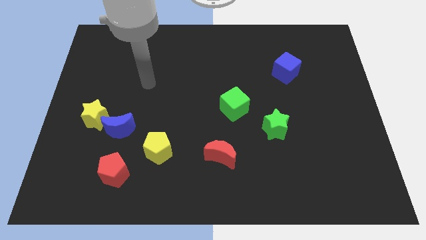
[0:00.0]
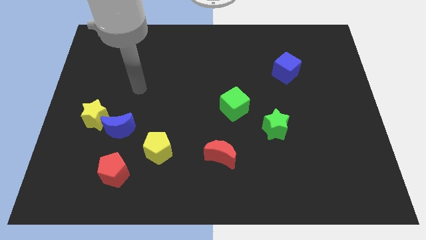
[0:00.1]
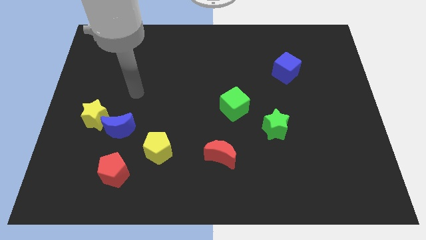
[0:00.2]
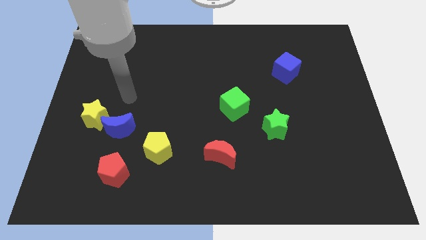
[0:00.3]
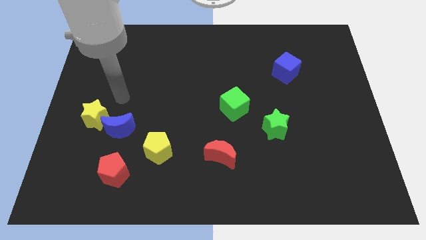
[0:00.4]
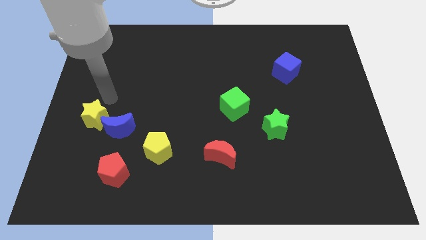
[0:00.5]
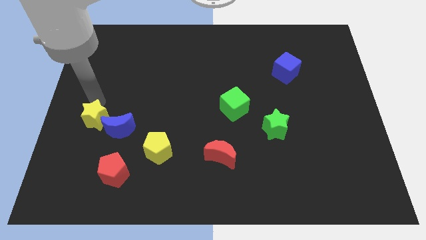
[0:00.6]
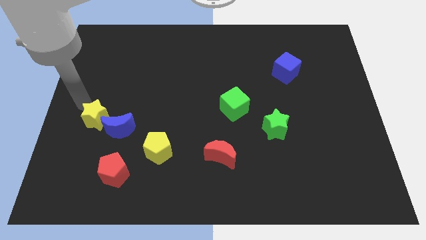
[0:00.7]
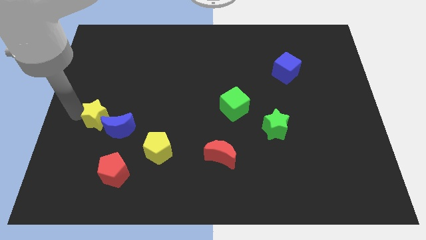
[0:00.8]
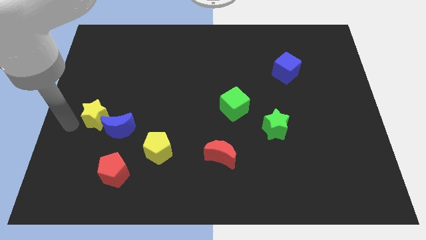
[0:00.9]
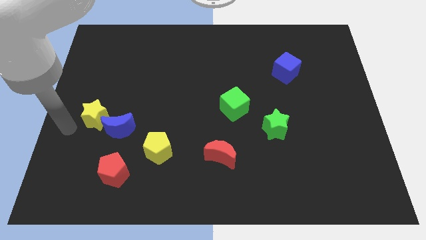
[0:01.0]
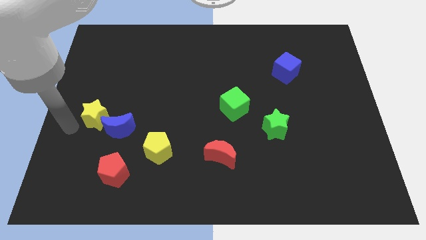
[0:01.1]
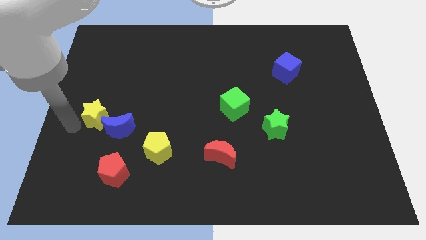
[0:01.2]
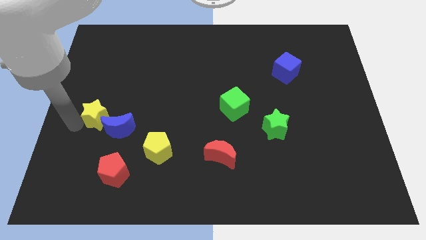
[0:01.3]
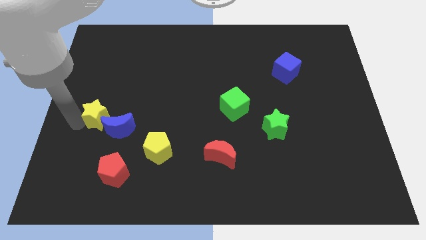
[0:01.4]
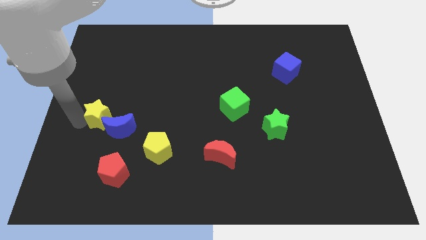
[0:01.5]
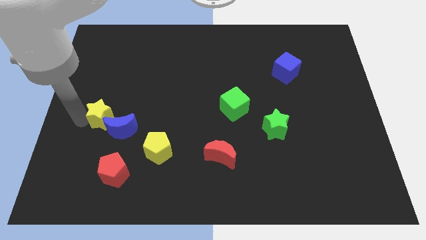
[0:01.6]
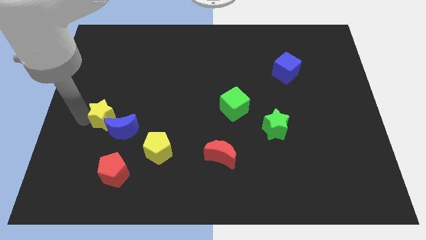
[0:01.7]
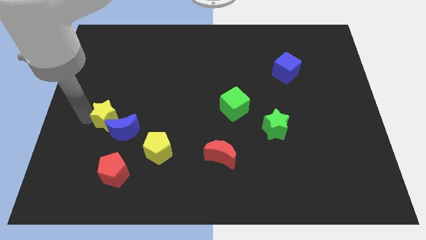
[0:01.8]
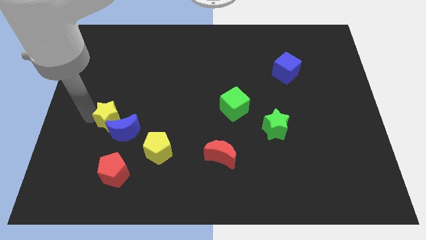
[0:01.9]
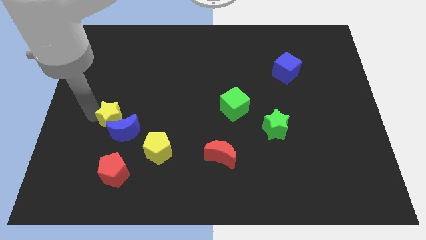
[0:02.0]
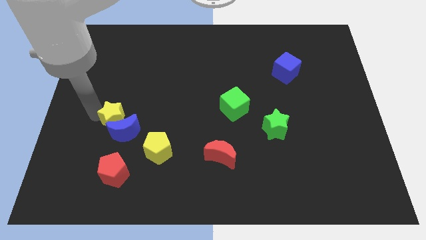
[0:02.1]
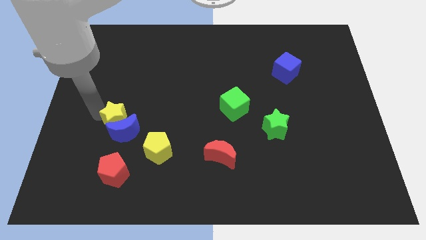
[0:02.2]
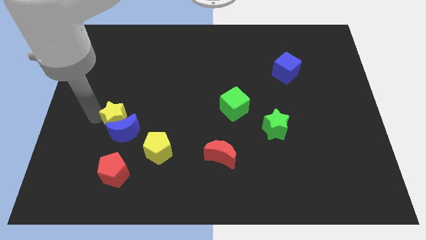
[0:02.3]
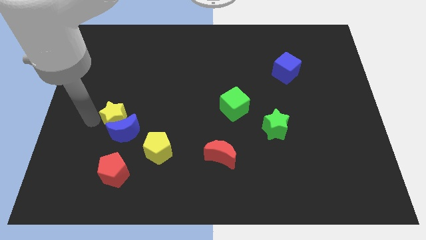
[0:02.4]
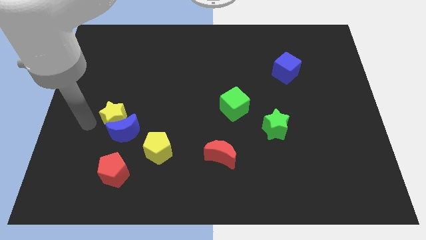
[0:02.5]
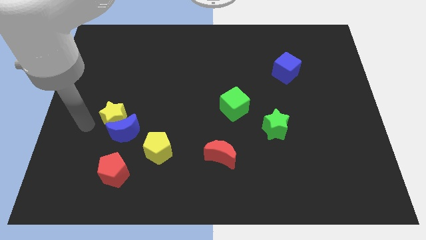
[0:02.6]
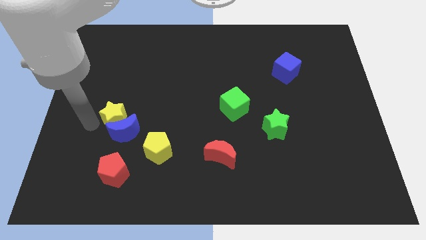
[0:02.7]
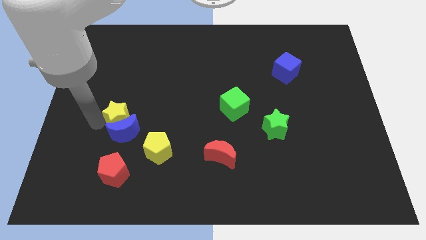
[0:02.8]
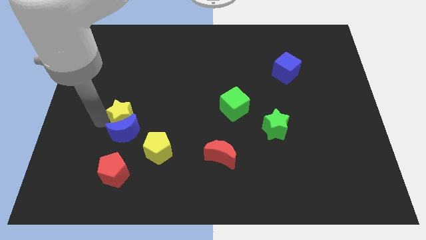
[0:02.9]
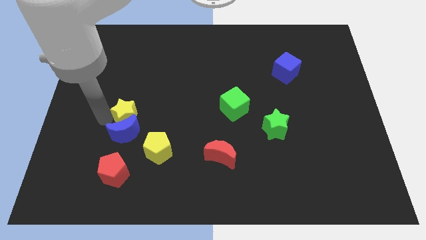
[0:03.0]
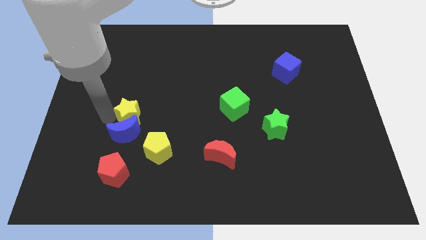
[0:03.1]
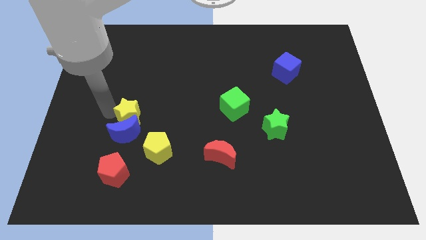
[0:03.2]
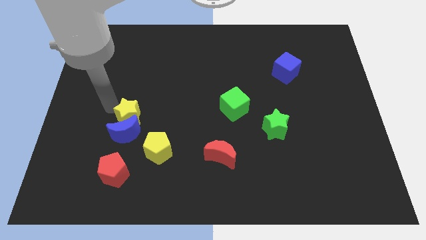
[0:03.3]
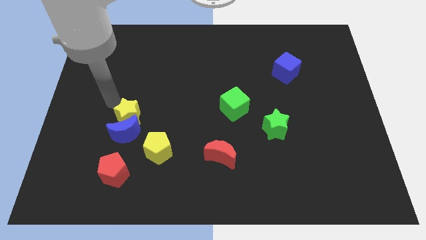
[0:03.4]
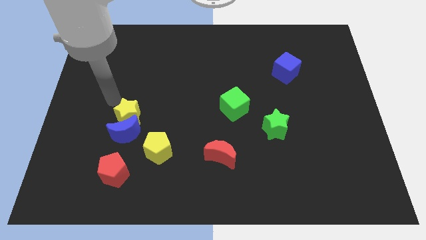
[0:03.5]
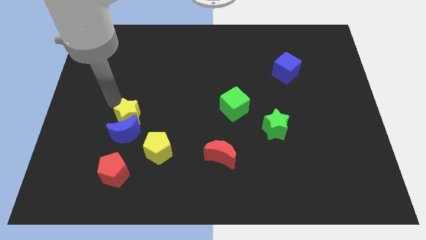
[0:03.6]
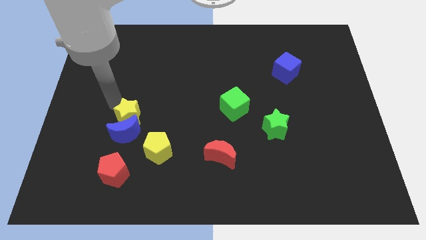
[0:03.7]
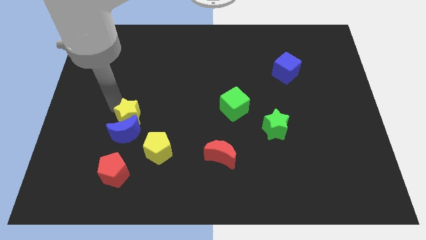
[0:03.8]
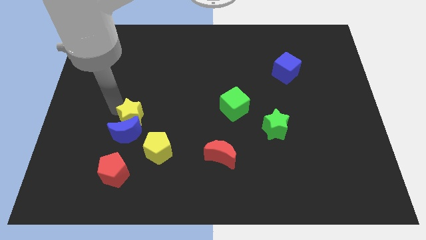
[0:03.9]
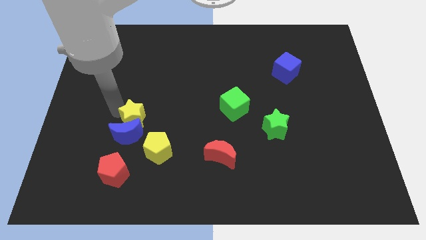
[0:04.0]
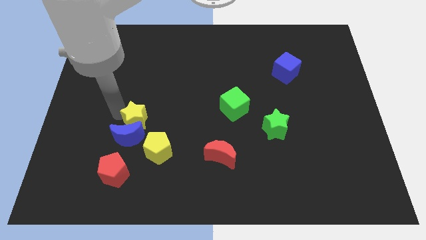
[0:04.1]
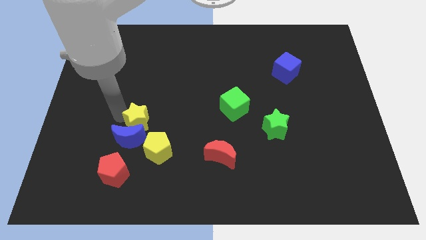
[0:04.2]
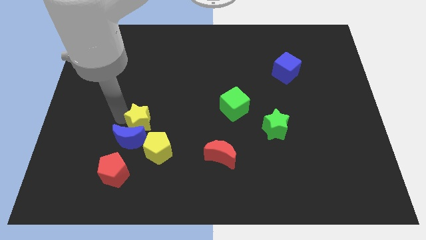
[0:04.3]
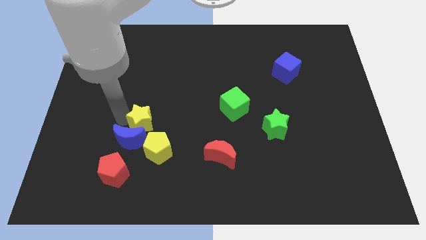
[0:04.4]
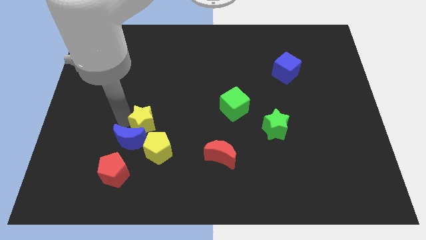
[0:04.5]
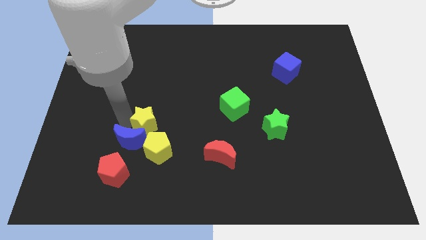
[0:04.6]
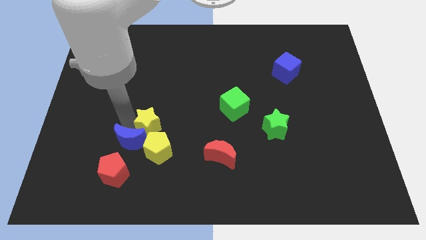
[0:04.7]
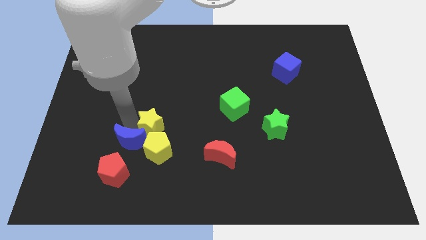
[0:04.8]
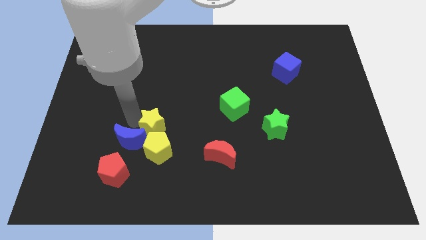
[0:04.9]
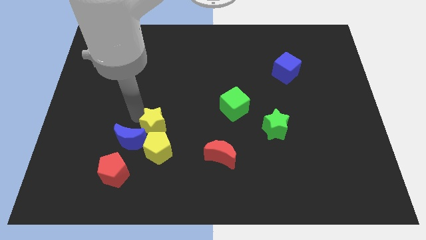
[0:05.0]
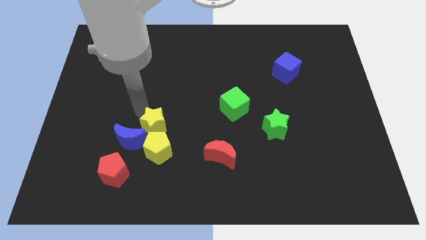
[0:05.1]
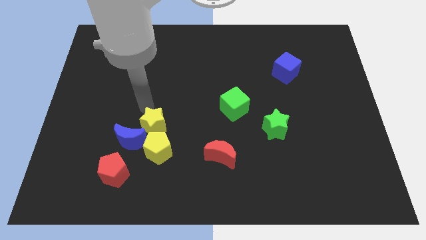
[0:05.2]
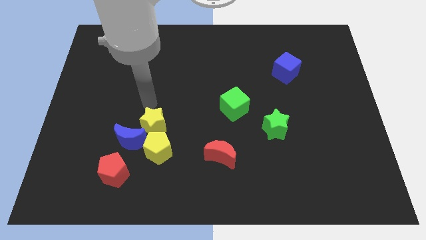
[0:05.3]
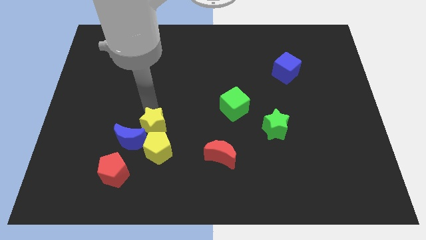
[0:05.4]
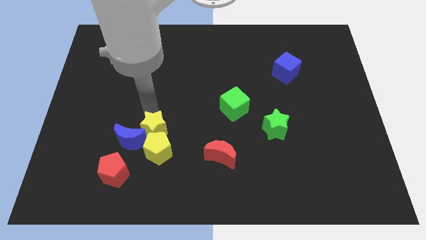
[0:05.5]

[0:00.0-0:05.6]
push the yellow star to the yellow pentagon

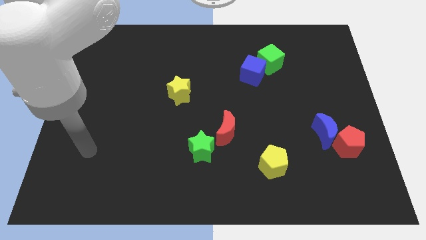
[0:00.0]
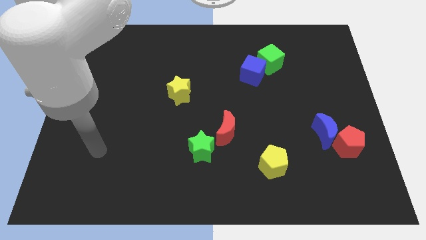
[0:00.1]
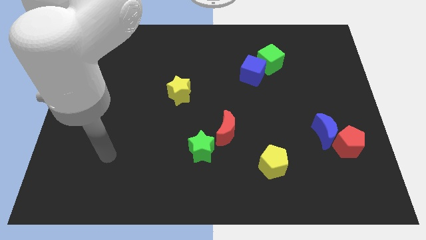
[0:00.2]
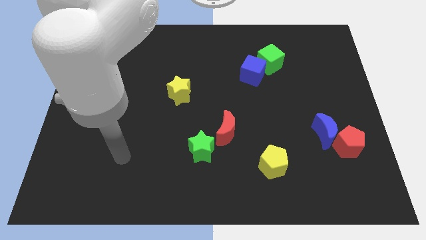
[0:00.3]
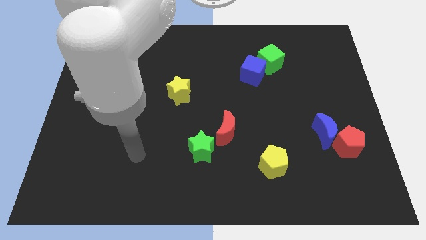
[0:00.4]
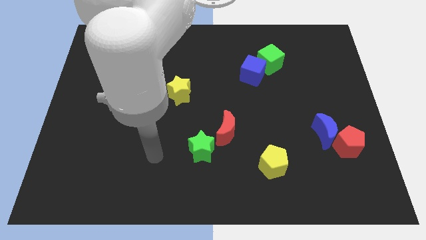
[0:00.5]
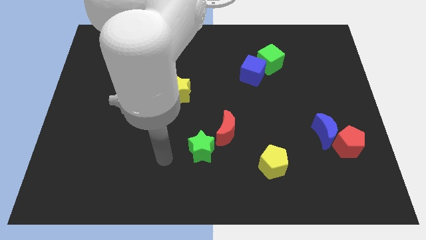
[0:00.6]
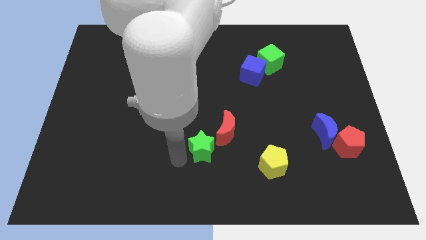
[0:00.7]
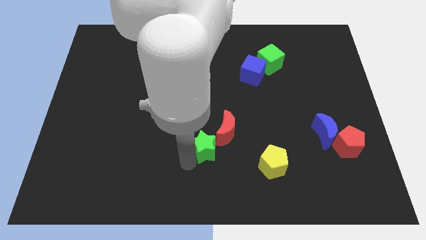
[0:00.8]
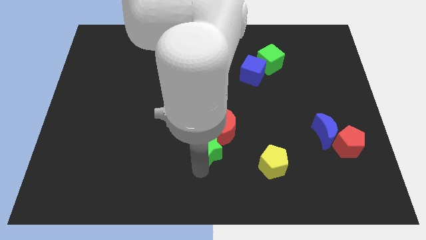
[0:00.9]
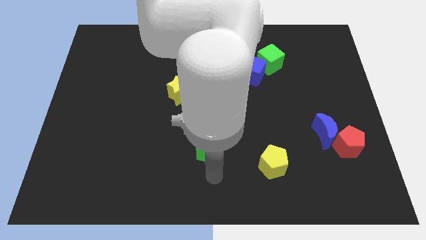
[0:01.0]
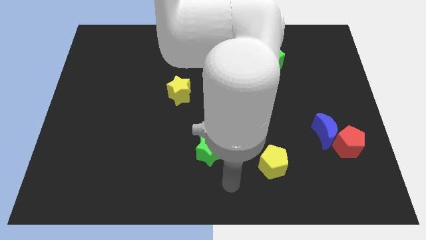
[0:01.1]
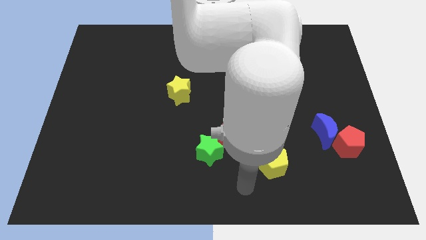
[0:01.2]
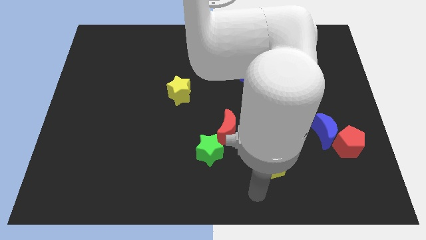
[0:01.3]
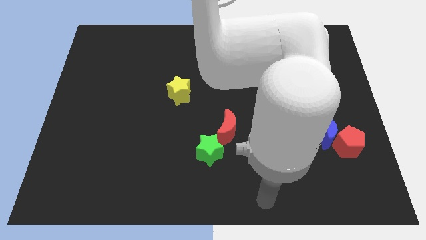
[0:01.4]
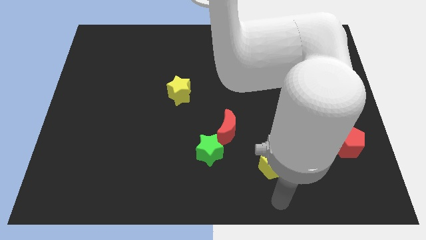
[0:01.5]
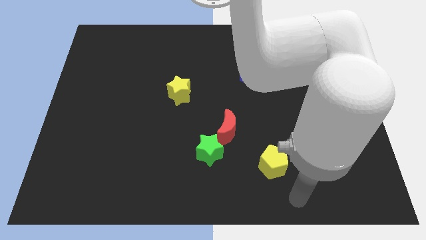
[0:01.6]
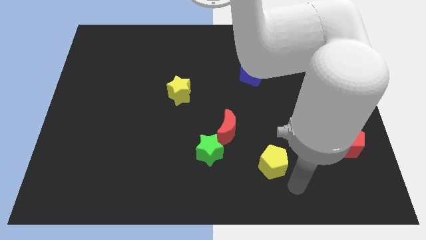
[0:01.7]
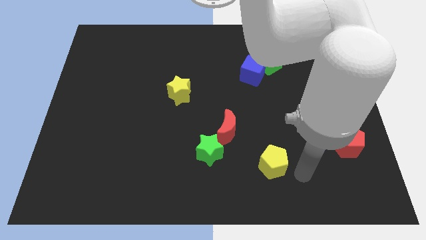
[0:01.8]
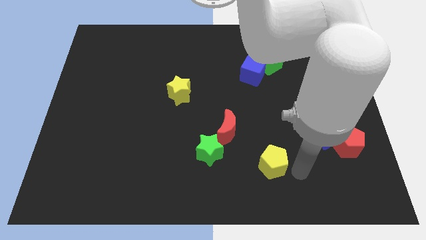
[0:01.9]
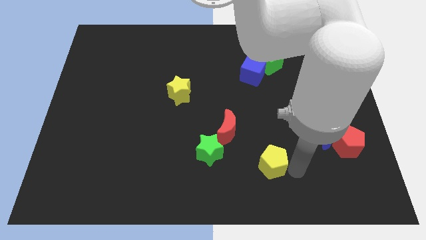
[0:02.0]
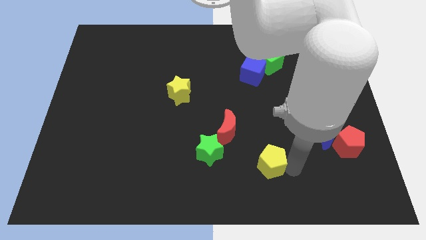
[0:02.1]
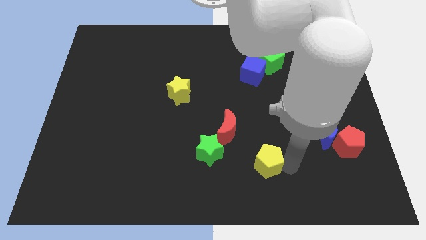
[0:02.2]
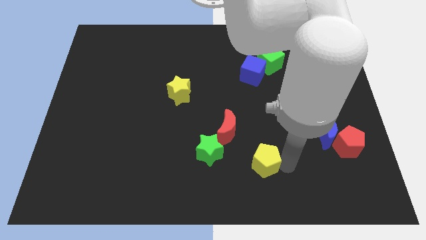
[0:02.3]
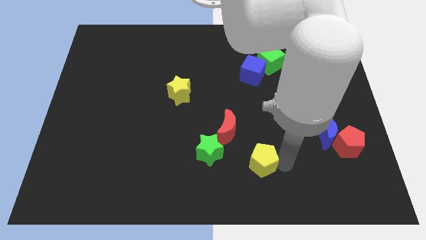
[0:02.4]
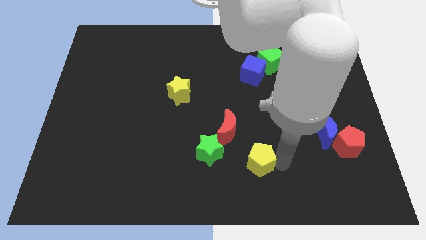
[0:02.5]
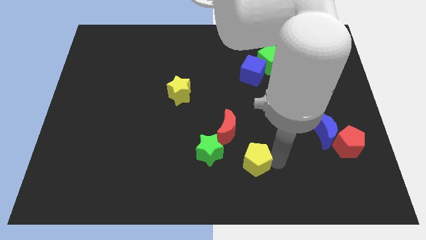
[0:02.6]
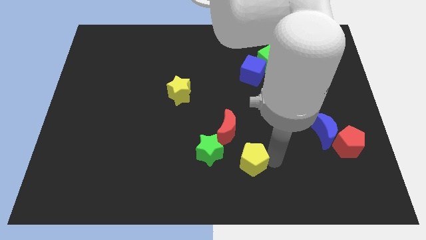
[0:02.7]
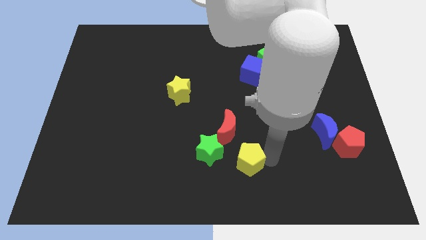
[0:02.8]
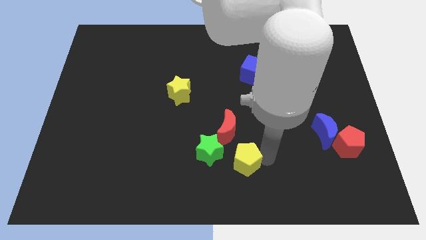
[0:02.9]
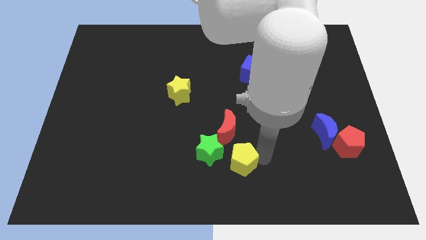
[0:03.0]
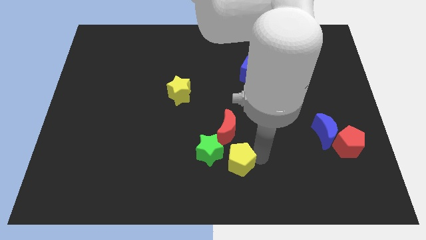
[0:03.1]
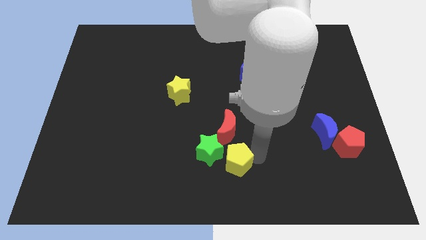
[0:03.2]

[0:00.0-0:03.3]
put the yellow pentagon next to the green star
